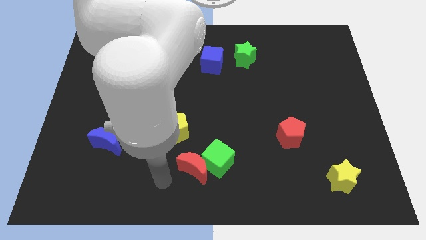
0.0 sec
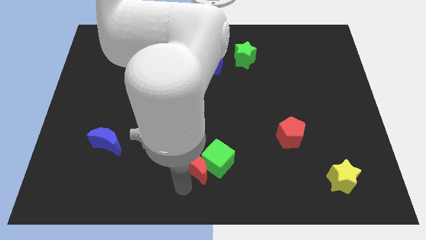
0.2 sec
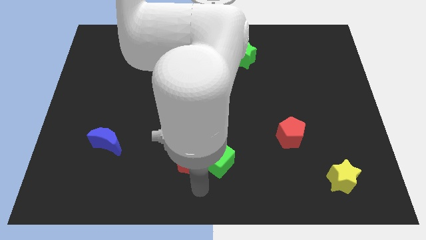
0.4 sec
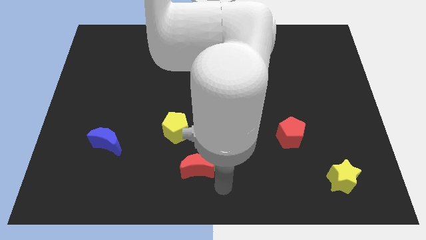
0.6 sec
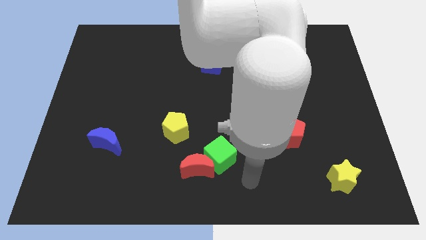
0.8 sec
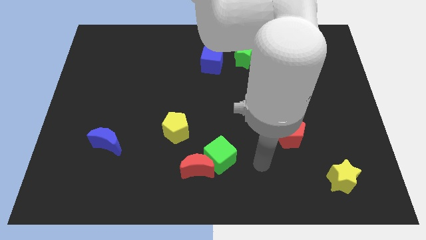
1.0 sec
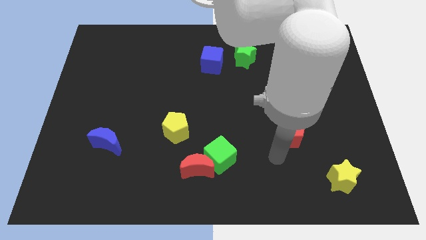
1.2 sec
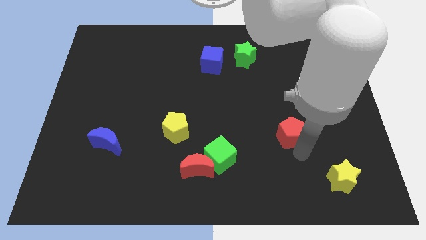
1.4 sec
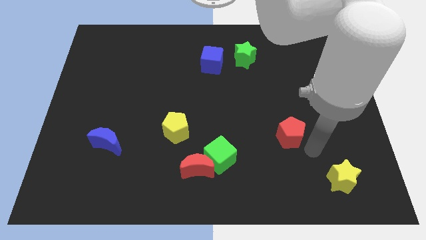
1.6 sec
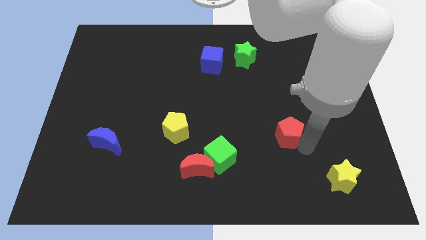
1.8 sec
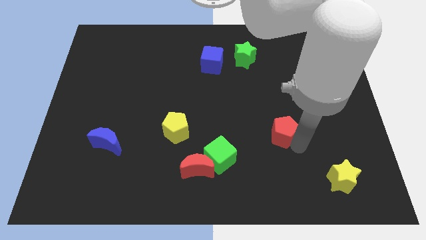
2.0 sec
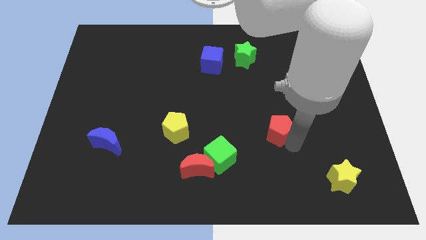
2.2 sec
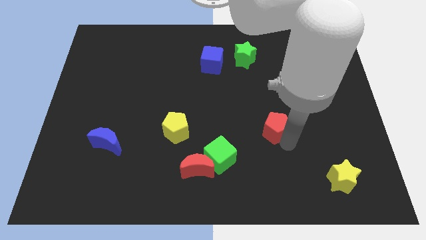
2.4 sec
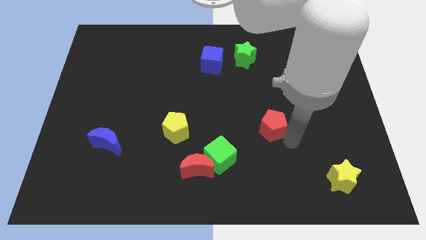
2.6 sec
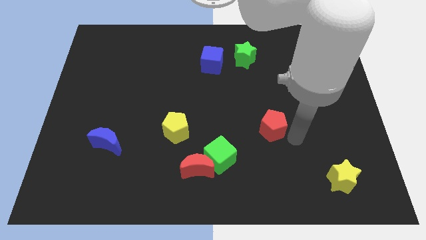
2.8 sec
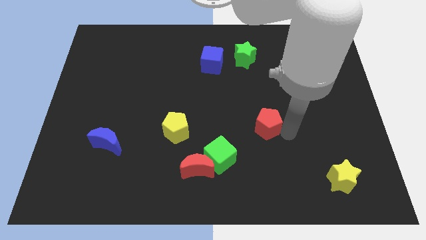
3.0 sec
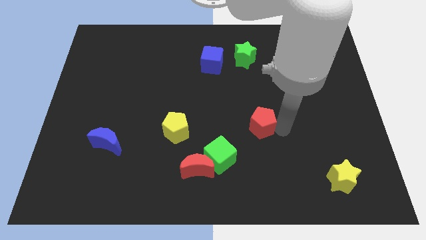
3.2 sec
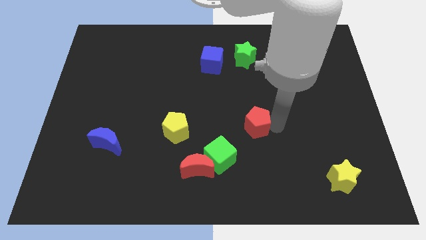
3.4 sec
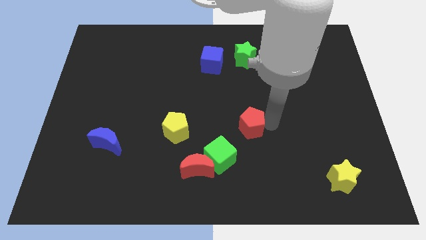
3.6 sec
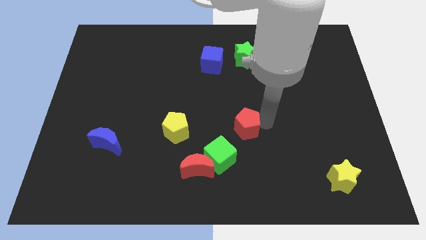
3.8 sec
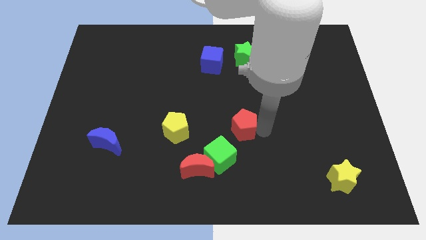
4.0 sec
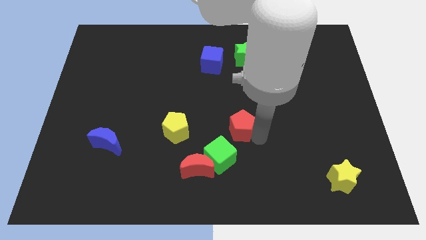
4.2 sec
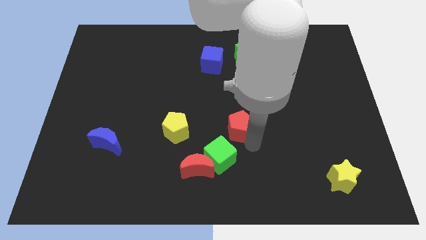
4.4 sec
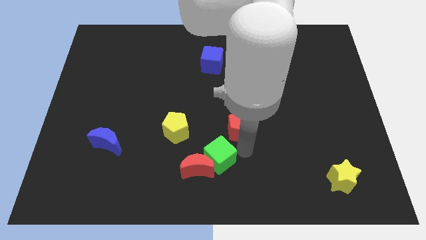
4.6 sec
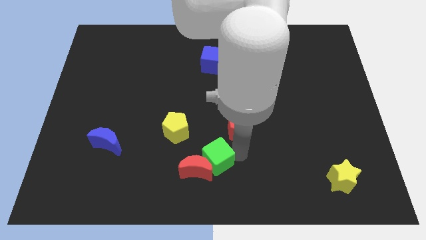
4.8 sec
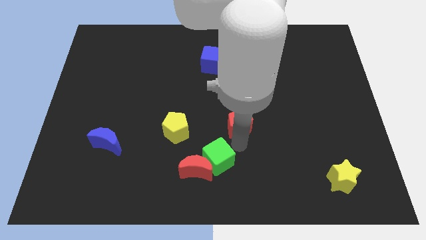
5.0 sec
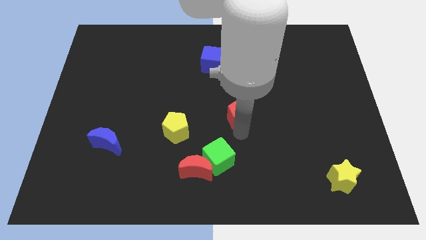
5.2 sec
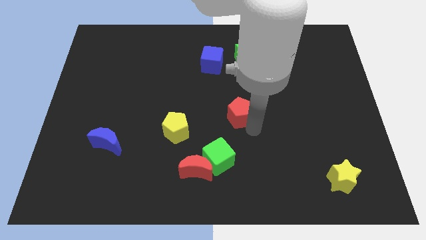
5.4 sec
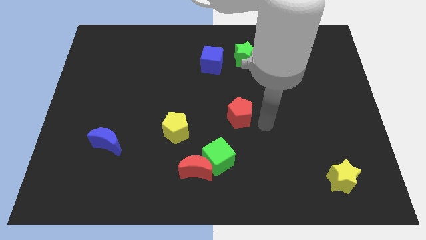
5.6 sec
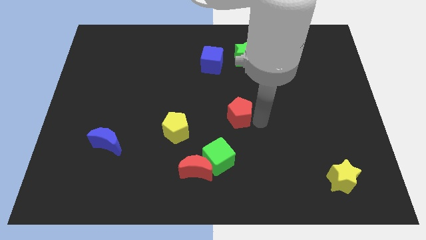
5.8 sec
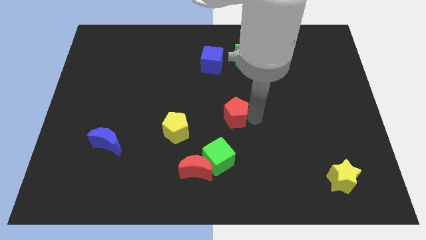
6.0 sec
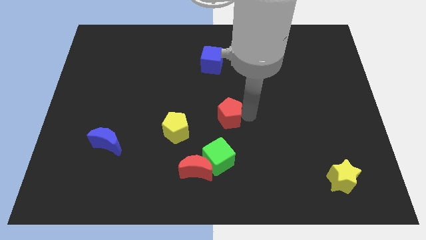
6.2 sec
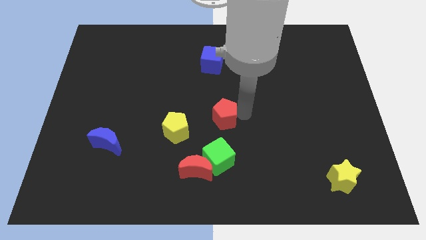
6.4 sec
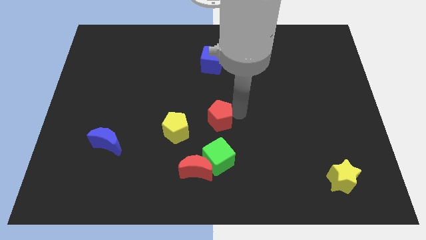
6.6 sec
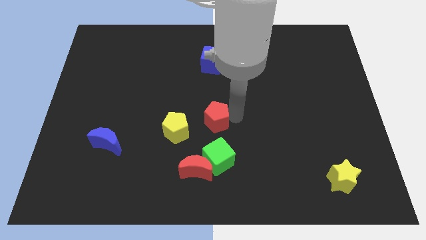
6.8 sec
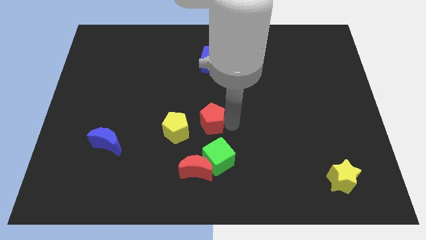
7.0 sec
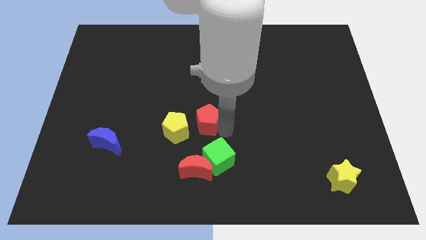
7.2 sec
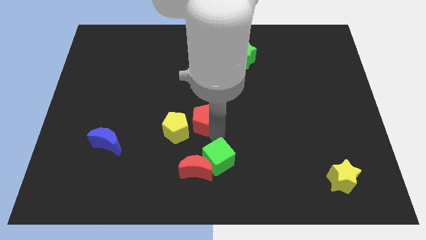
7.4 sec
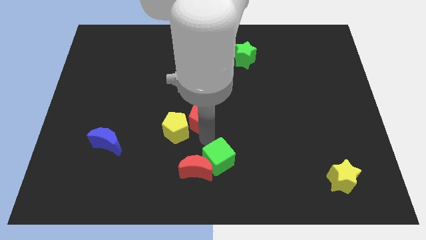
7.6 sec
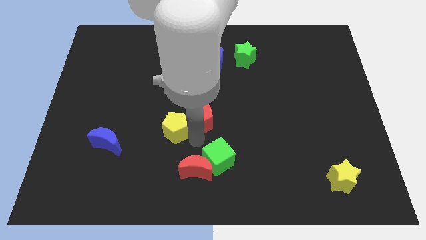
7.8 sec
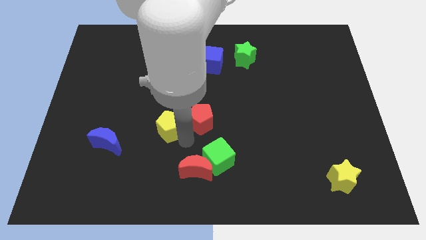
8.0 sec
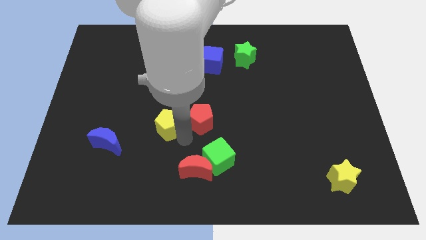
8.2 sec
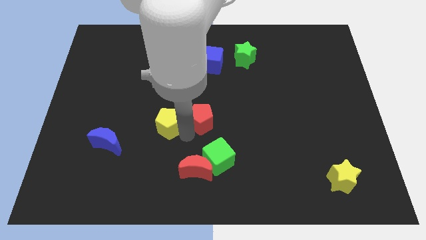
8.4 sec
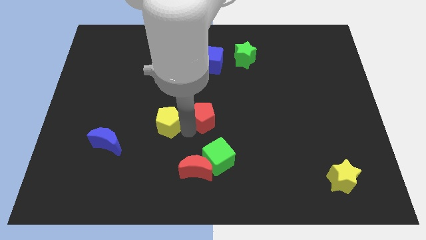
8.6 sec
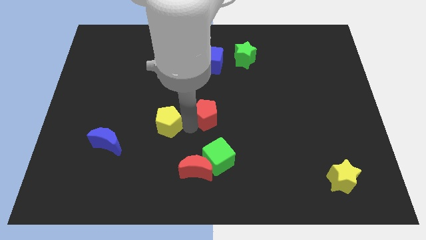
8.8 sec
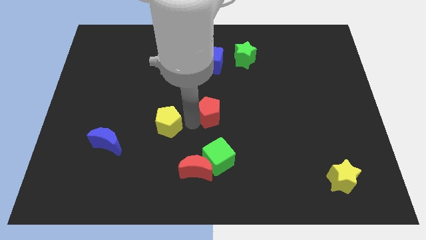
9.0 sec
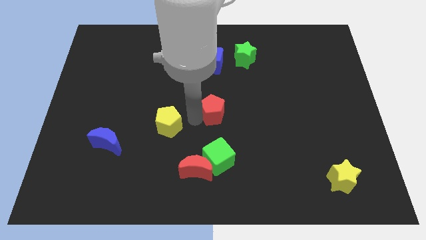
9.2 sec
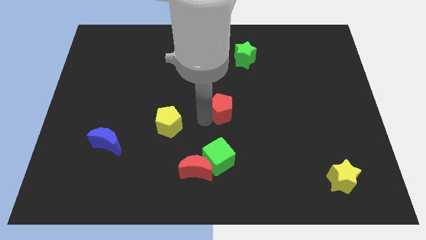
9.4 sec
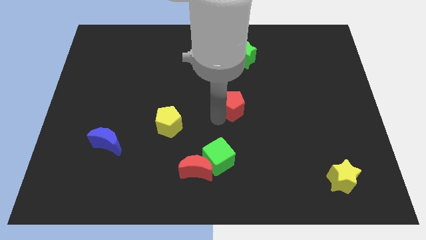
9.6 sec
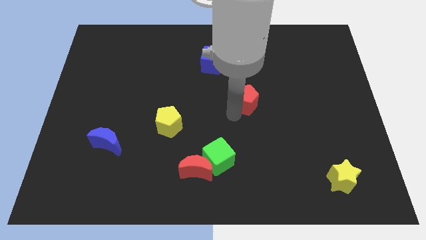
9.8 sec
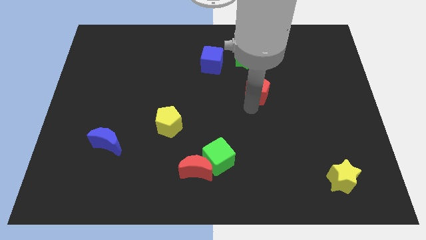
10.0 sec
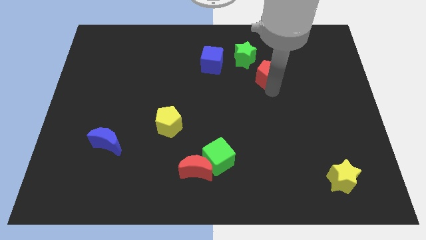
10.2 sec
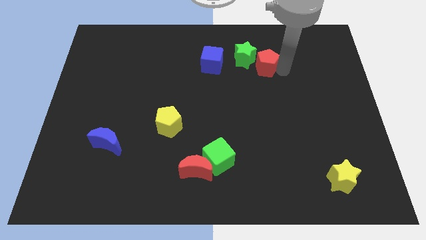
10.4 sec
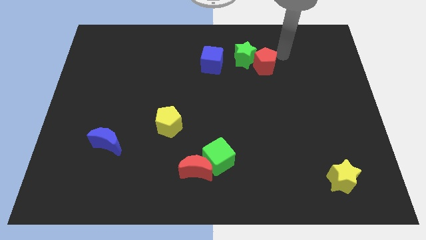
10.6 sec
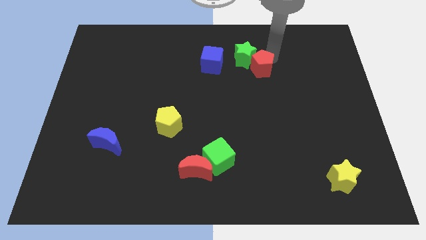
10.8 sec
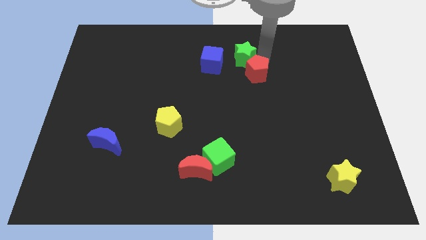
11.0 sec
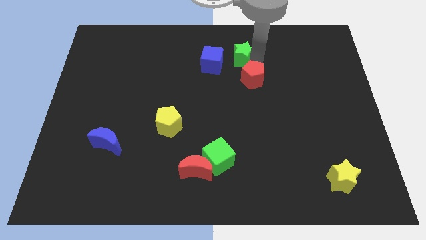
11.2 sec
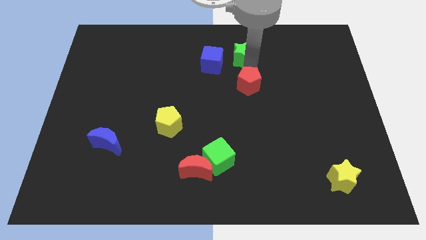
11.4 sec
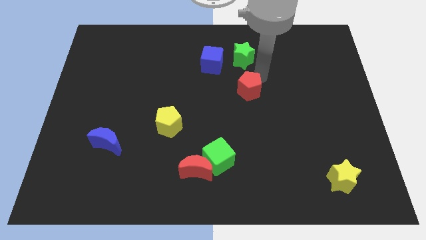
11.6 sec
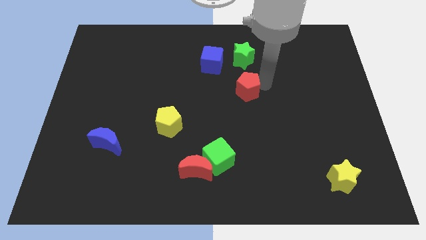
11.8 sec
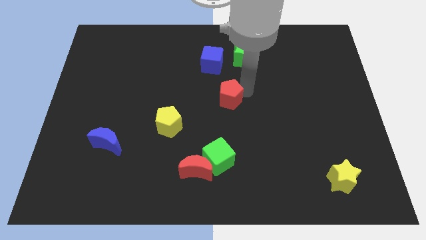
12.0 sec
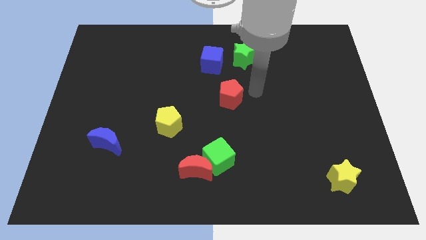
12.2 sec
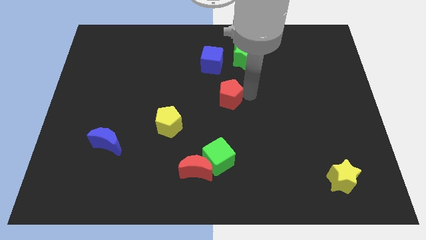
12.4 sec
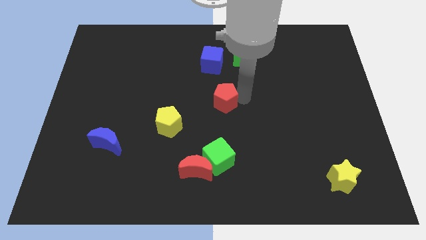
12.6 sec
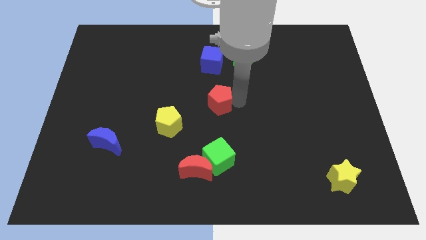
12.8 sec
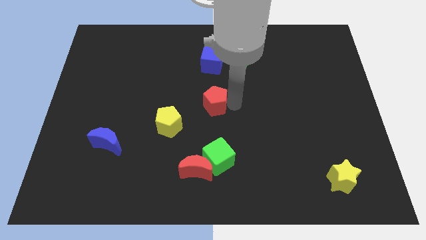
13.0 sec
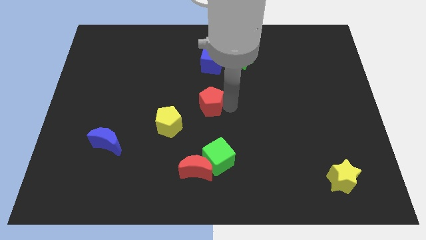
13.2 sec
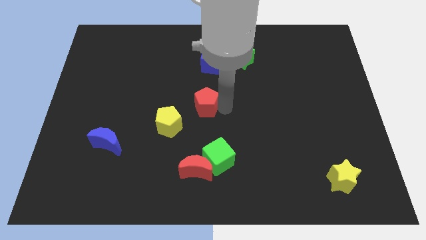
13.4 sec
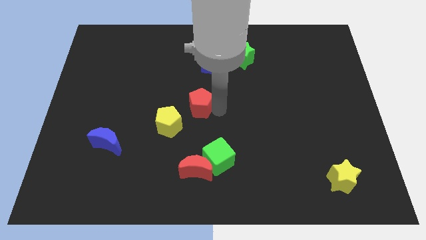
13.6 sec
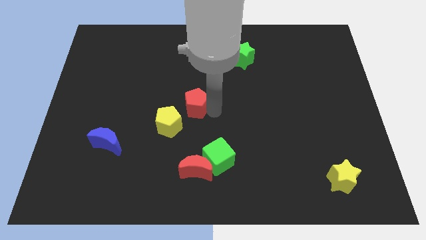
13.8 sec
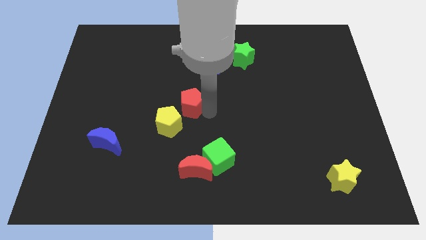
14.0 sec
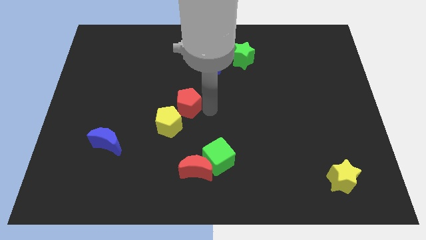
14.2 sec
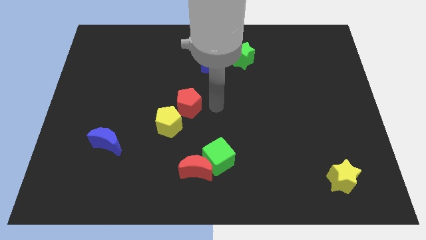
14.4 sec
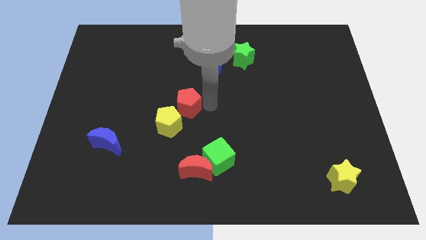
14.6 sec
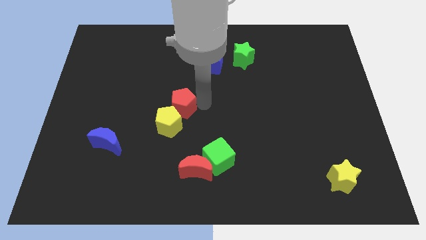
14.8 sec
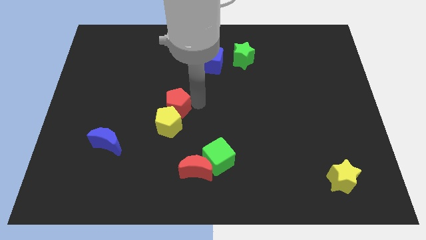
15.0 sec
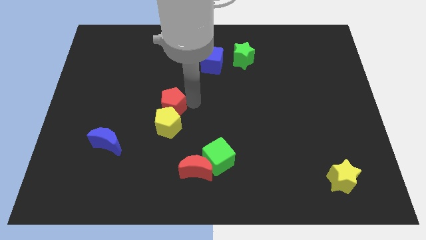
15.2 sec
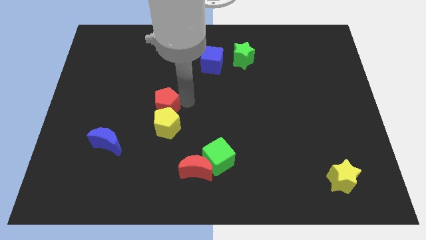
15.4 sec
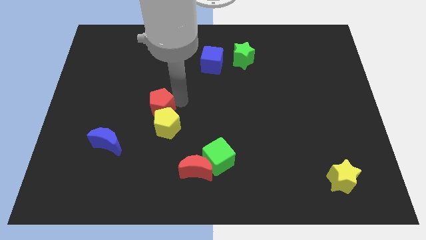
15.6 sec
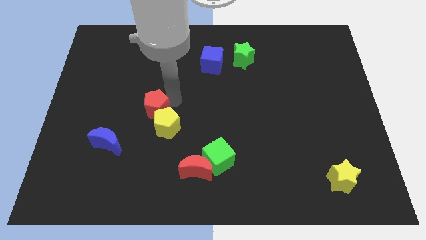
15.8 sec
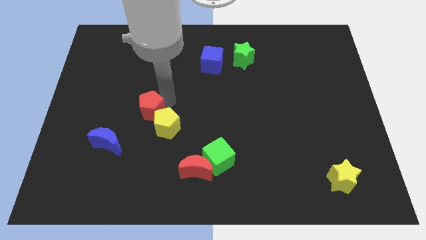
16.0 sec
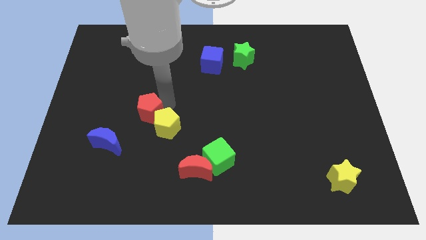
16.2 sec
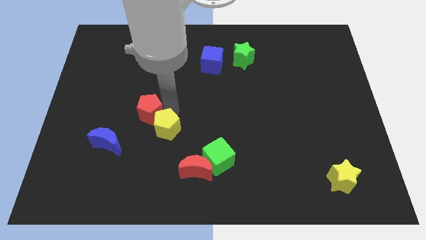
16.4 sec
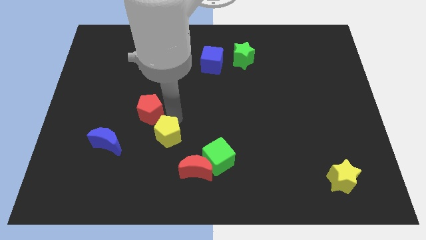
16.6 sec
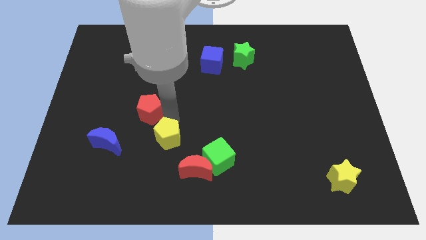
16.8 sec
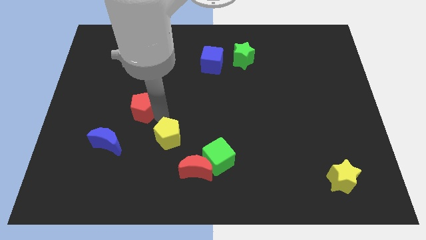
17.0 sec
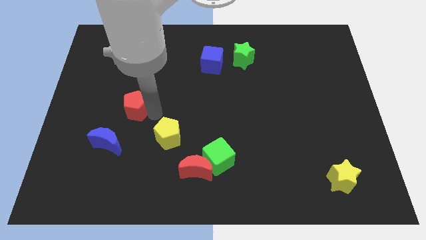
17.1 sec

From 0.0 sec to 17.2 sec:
slide the red pentagon above the blue moon
